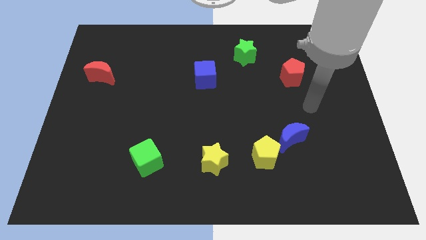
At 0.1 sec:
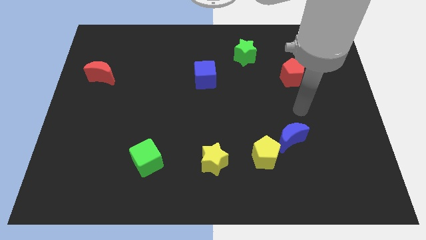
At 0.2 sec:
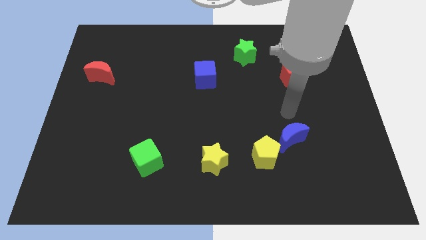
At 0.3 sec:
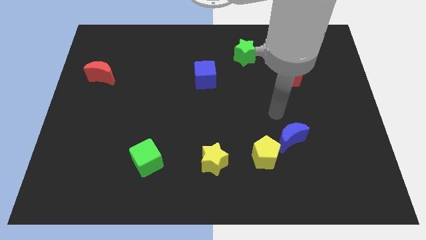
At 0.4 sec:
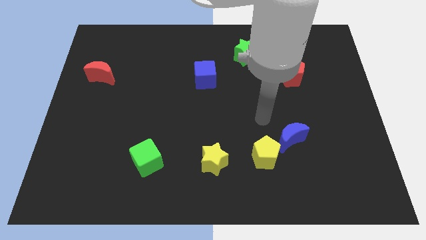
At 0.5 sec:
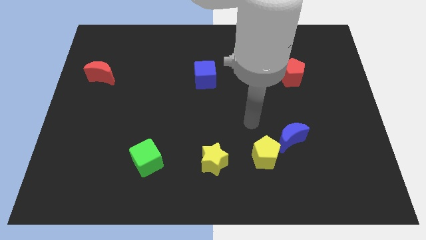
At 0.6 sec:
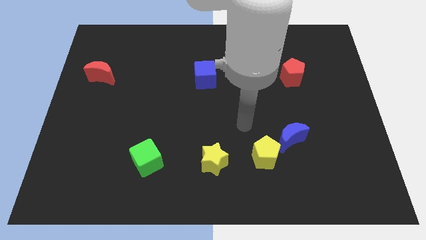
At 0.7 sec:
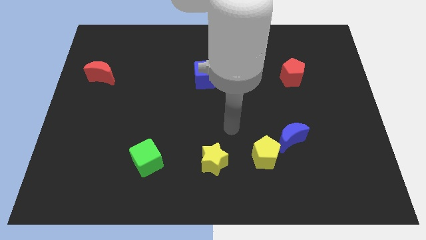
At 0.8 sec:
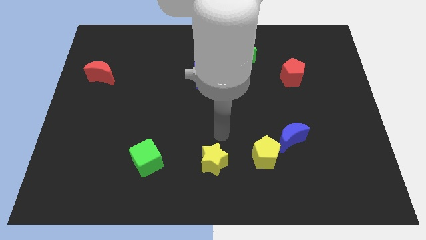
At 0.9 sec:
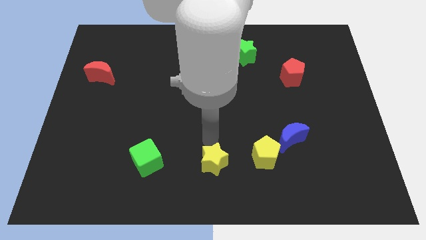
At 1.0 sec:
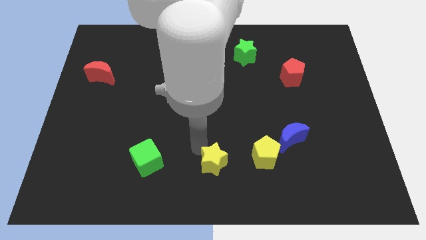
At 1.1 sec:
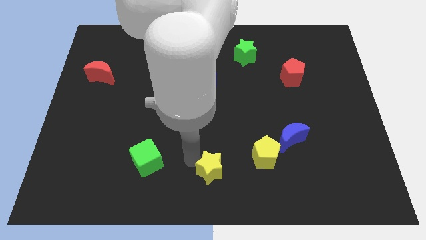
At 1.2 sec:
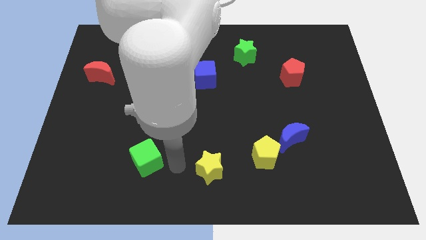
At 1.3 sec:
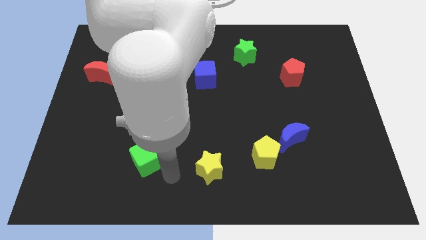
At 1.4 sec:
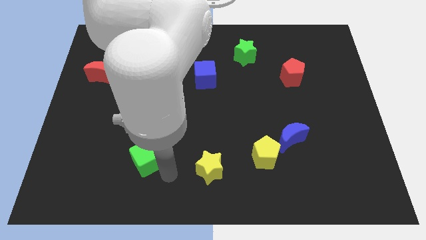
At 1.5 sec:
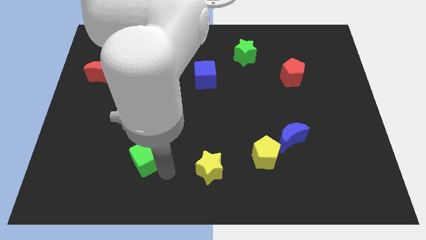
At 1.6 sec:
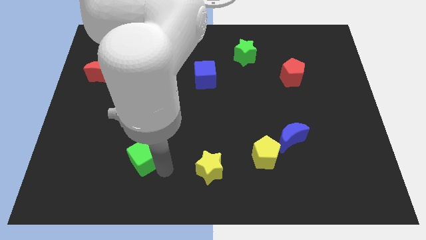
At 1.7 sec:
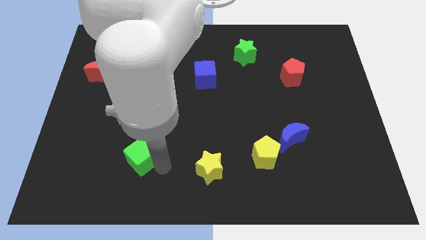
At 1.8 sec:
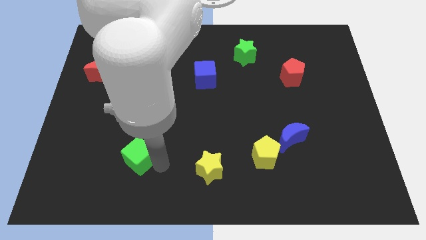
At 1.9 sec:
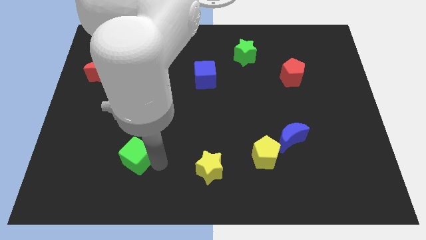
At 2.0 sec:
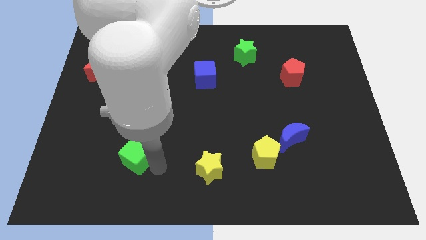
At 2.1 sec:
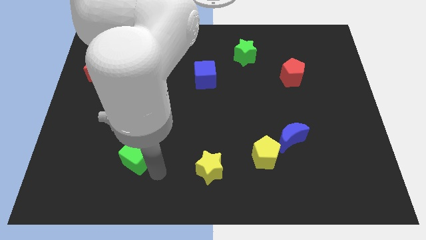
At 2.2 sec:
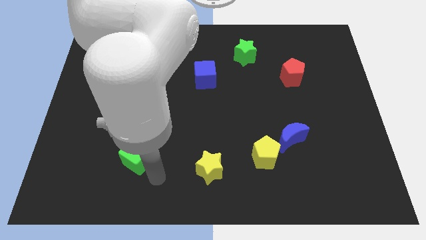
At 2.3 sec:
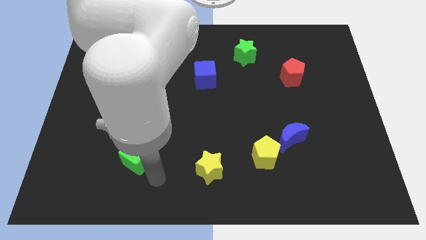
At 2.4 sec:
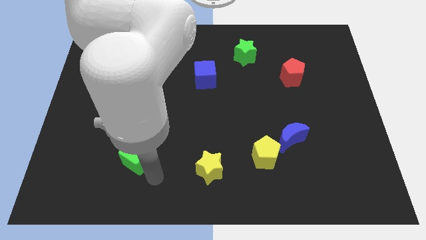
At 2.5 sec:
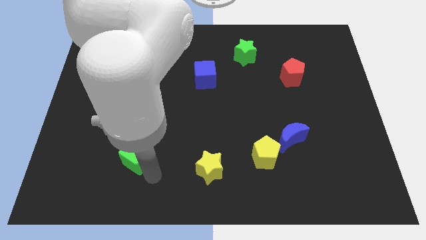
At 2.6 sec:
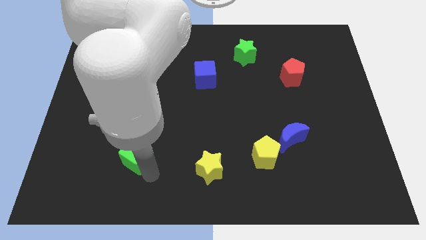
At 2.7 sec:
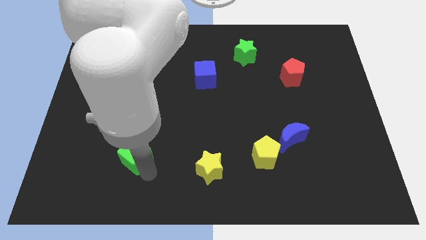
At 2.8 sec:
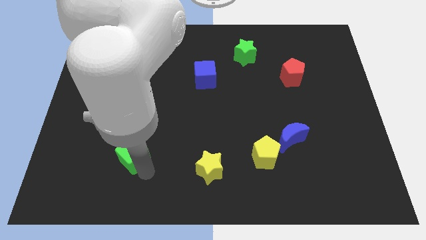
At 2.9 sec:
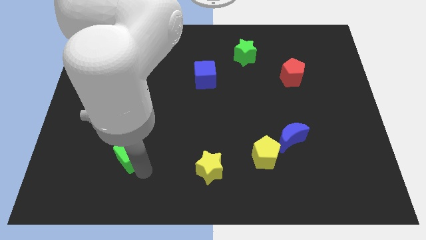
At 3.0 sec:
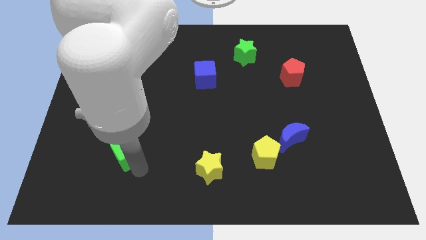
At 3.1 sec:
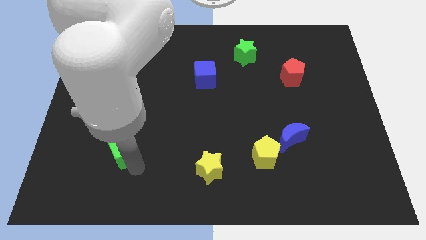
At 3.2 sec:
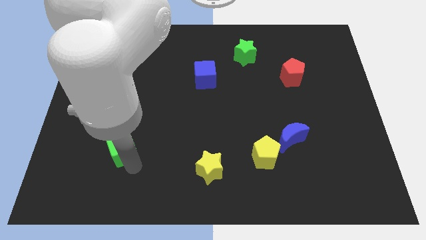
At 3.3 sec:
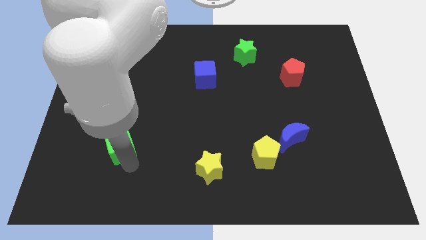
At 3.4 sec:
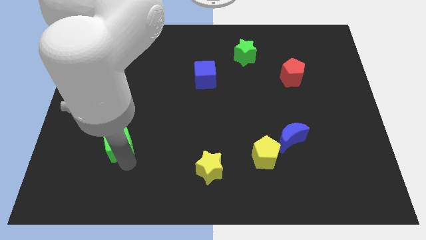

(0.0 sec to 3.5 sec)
slightly move the green cube up and left

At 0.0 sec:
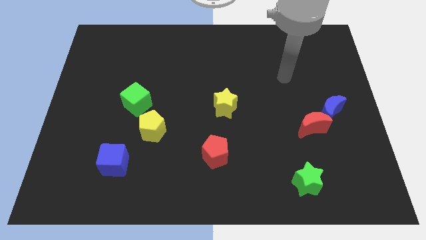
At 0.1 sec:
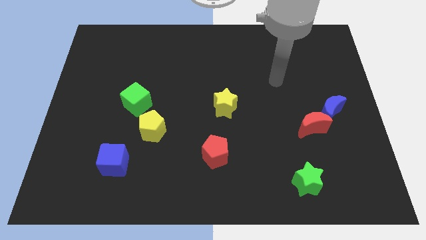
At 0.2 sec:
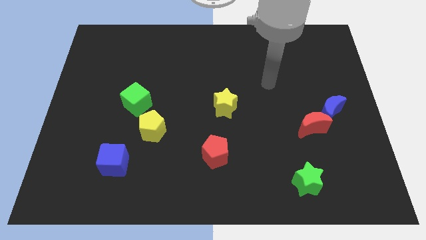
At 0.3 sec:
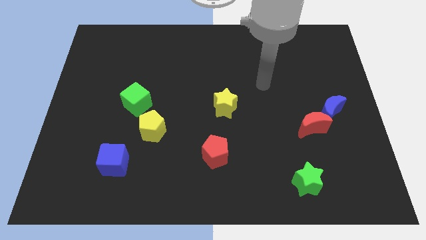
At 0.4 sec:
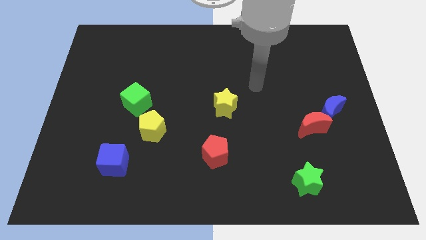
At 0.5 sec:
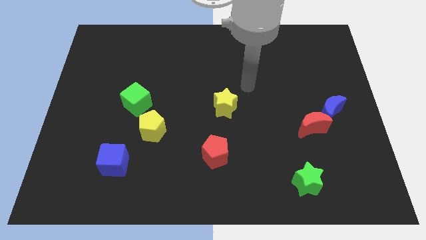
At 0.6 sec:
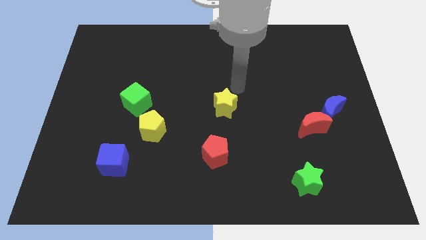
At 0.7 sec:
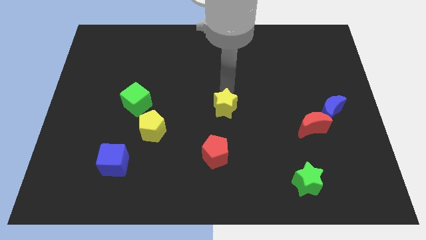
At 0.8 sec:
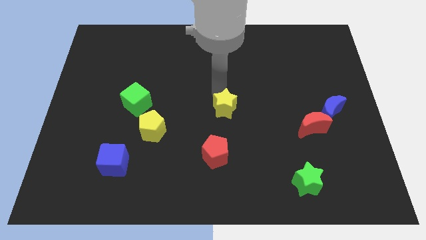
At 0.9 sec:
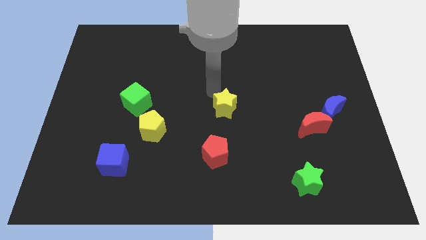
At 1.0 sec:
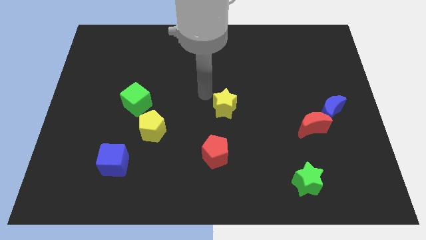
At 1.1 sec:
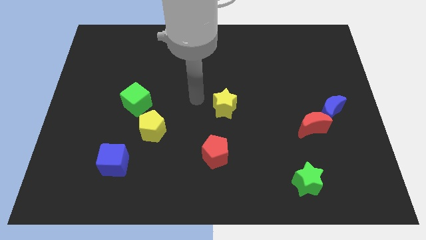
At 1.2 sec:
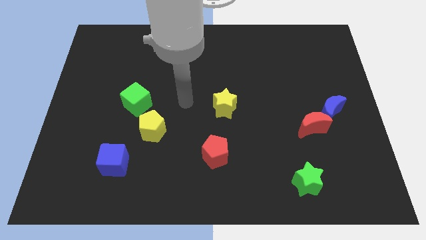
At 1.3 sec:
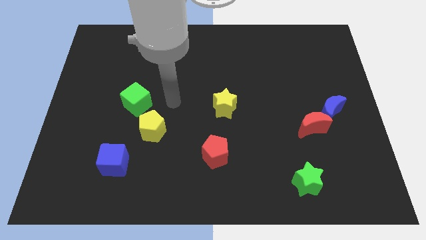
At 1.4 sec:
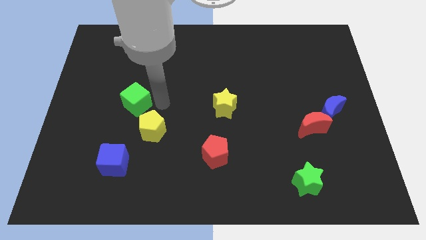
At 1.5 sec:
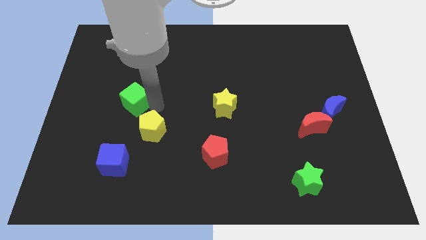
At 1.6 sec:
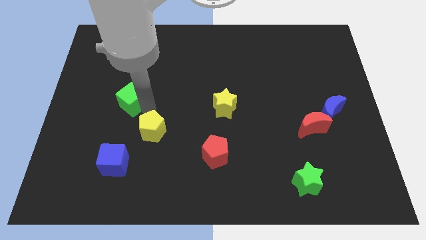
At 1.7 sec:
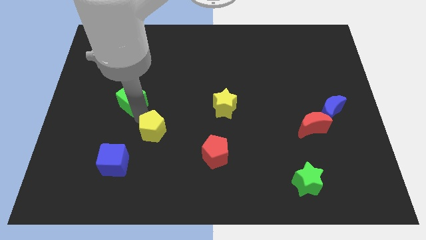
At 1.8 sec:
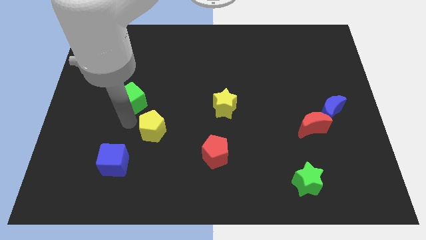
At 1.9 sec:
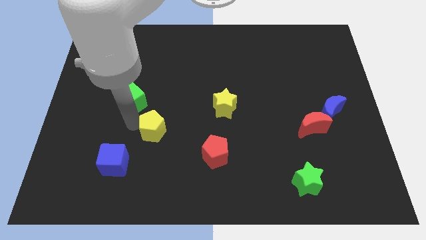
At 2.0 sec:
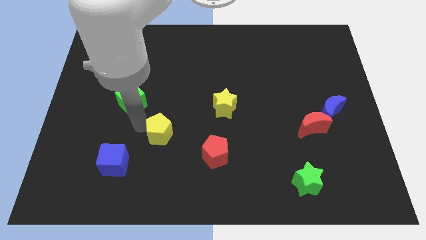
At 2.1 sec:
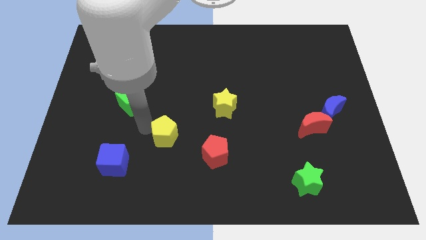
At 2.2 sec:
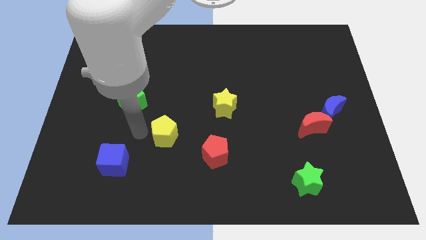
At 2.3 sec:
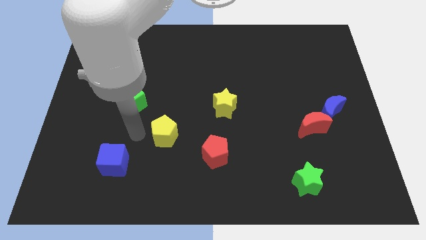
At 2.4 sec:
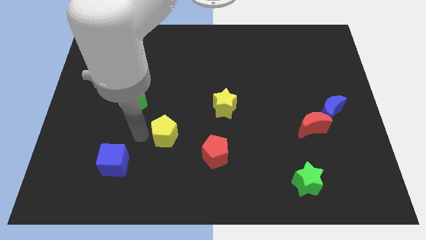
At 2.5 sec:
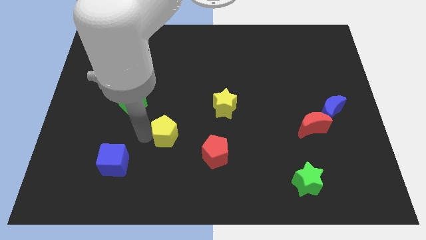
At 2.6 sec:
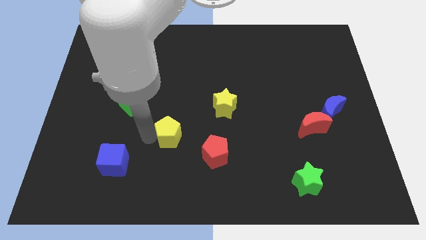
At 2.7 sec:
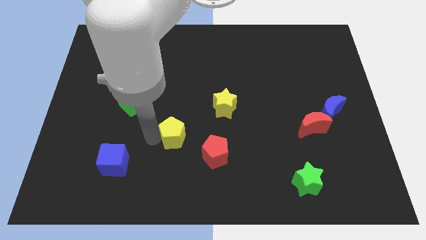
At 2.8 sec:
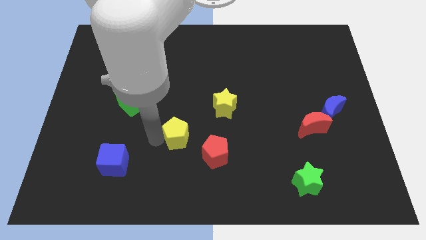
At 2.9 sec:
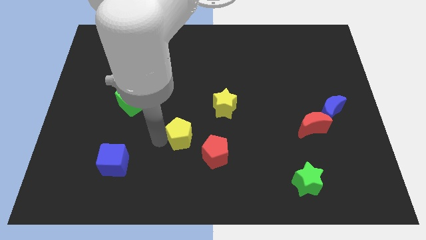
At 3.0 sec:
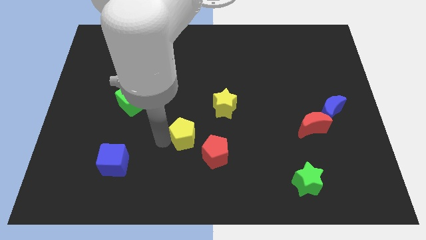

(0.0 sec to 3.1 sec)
slide the yellow pentagon to the right a little bit

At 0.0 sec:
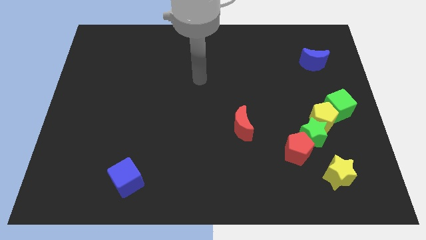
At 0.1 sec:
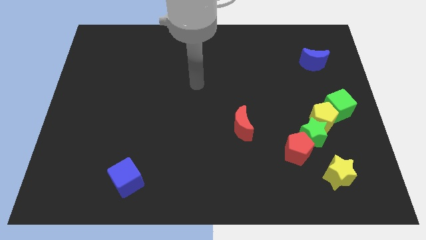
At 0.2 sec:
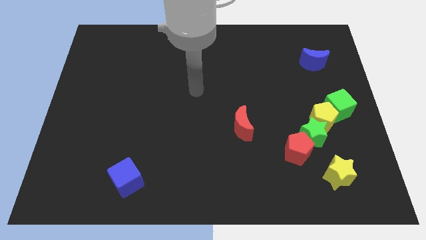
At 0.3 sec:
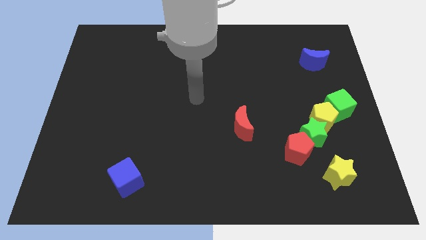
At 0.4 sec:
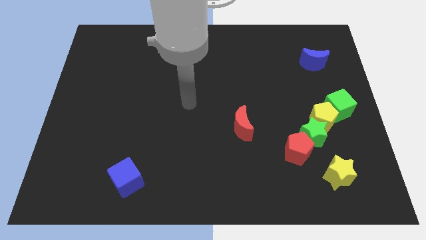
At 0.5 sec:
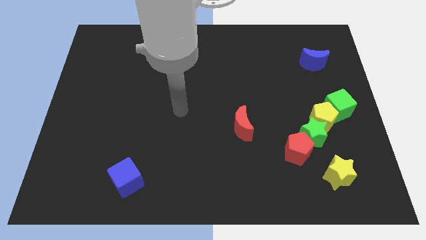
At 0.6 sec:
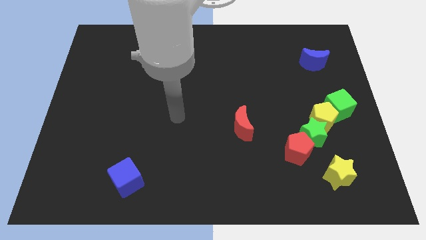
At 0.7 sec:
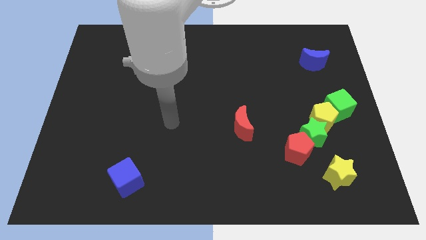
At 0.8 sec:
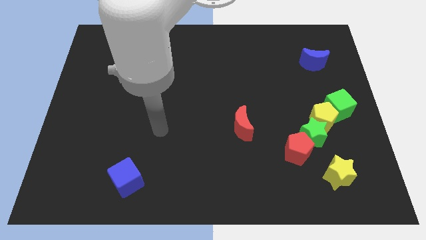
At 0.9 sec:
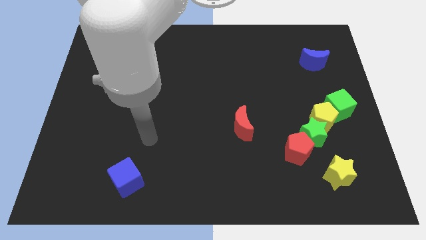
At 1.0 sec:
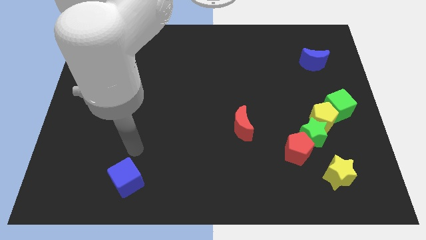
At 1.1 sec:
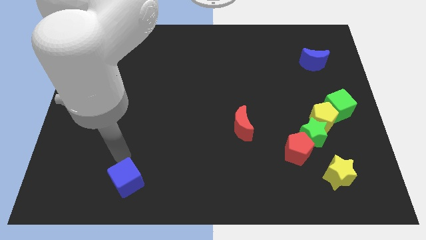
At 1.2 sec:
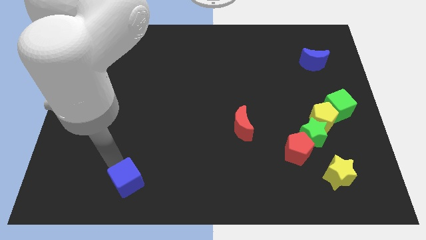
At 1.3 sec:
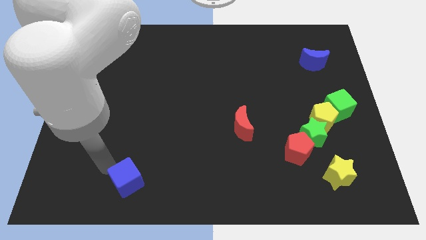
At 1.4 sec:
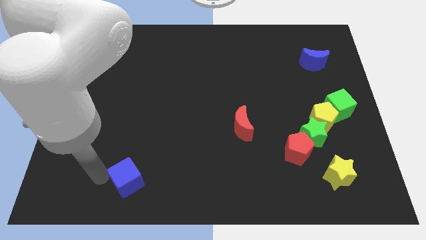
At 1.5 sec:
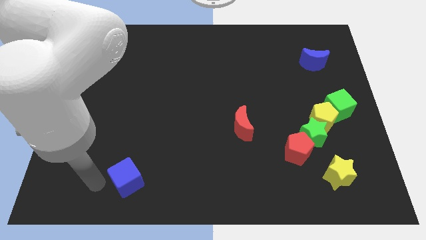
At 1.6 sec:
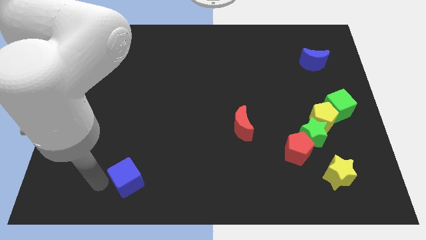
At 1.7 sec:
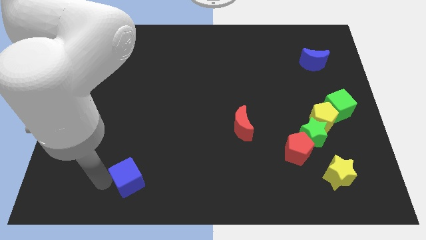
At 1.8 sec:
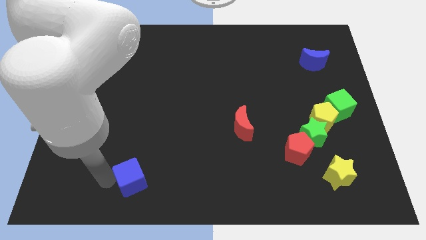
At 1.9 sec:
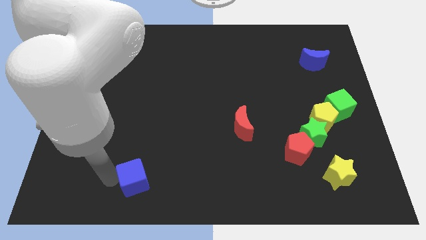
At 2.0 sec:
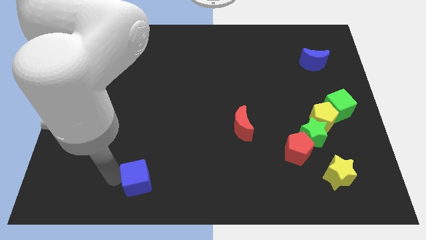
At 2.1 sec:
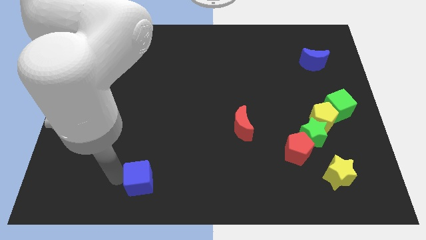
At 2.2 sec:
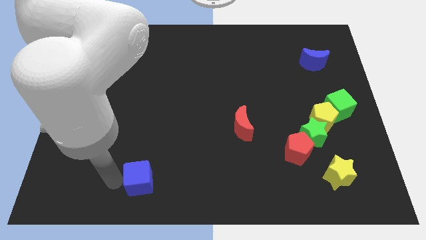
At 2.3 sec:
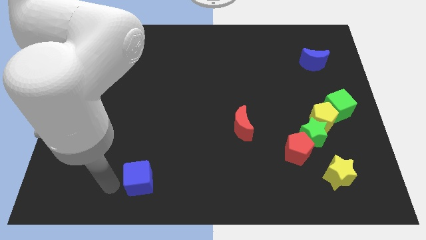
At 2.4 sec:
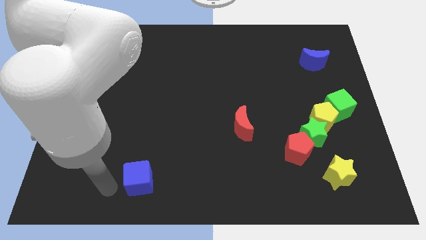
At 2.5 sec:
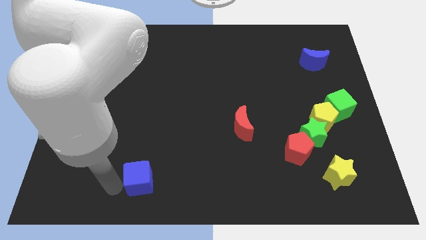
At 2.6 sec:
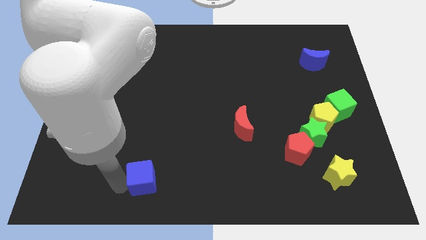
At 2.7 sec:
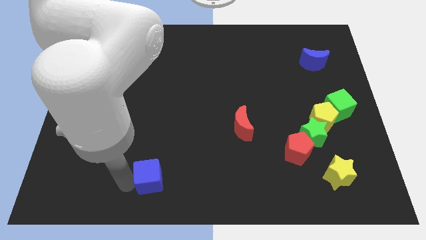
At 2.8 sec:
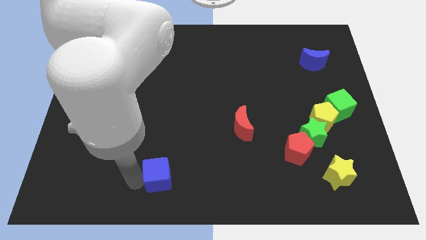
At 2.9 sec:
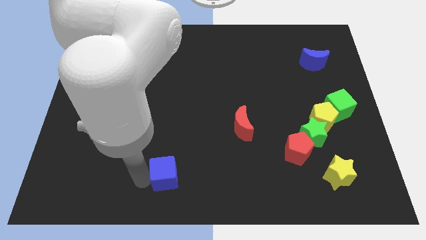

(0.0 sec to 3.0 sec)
slightly slide the blue cube right
